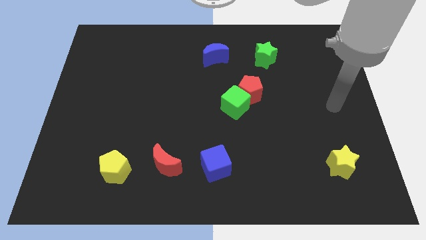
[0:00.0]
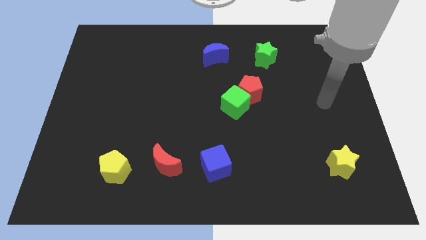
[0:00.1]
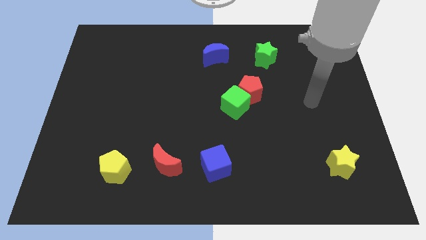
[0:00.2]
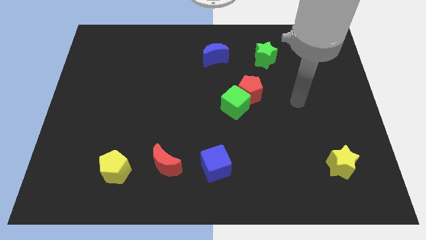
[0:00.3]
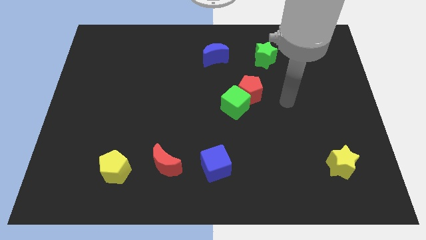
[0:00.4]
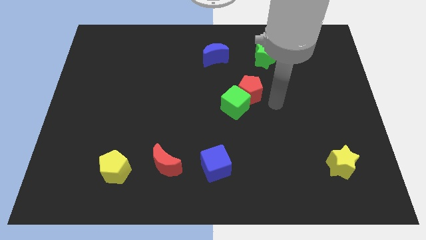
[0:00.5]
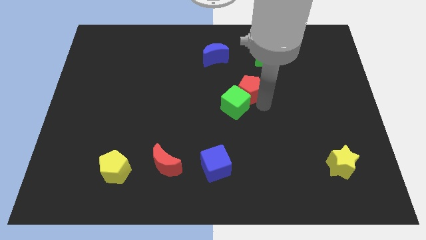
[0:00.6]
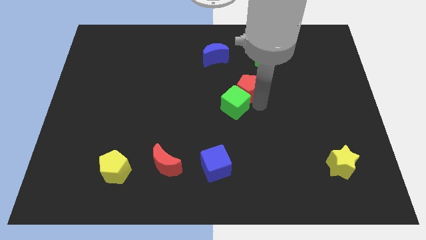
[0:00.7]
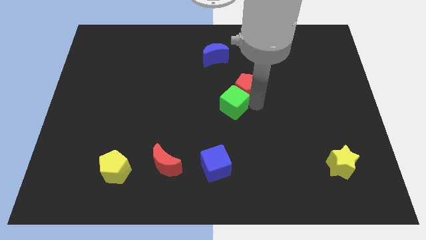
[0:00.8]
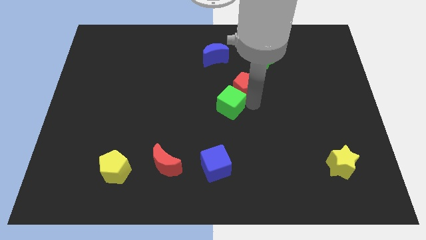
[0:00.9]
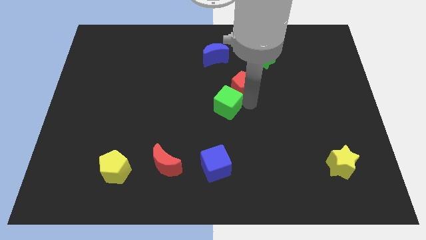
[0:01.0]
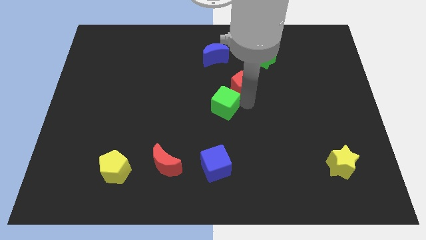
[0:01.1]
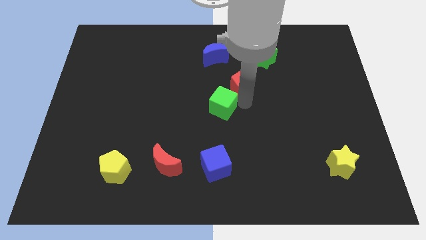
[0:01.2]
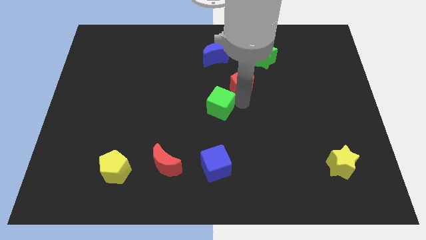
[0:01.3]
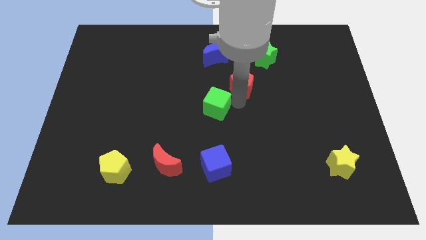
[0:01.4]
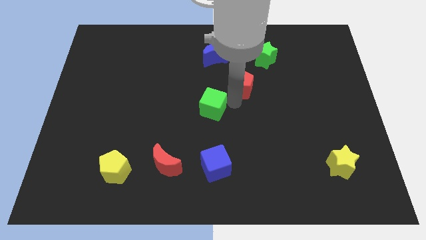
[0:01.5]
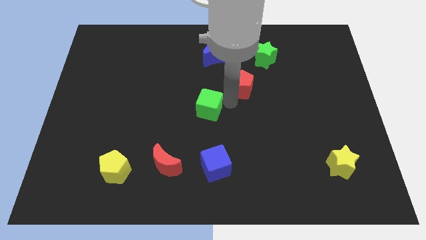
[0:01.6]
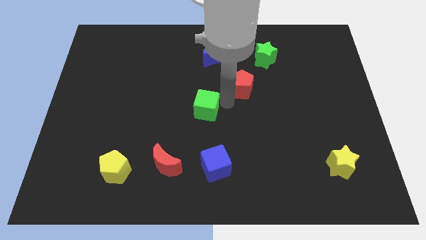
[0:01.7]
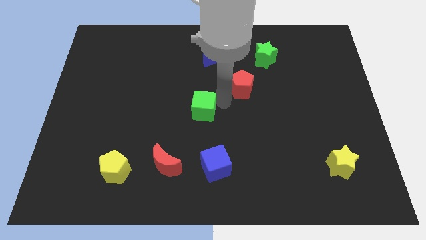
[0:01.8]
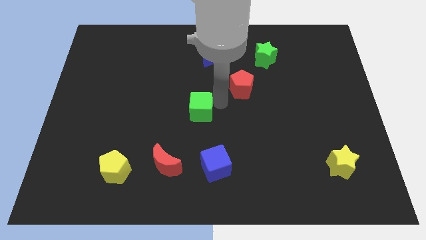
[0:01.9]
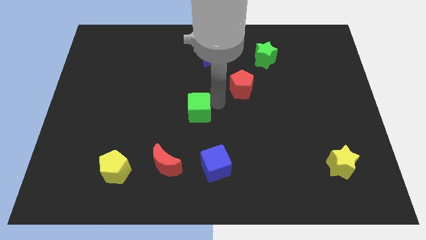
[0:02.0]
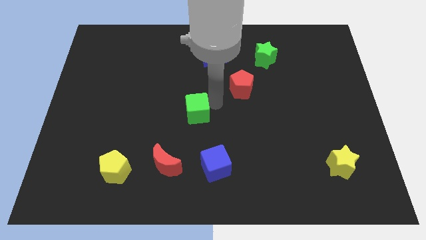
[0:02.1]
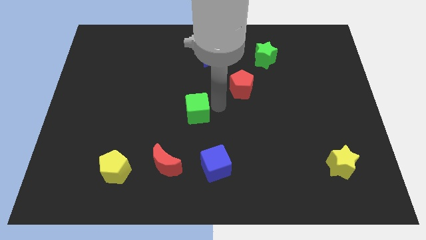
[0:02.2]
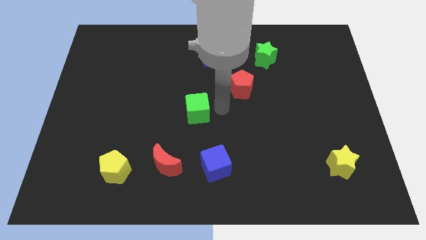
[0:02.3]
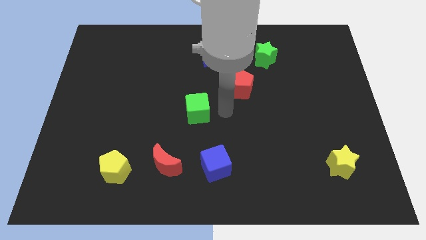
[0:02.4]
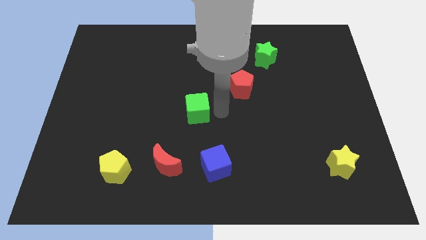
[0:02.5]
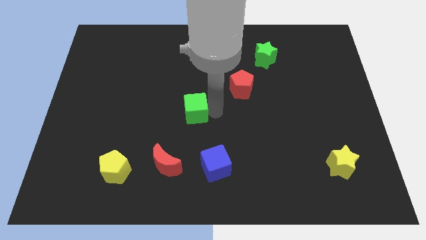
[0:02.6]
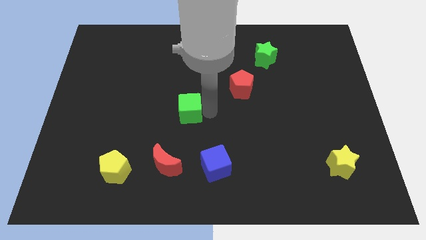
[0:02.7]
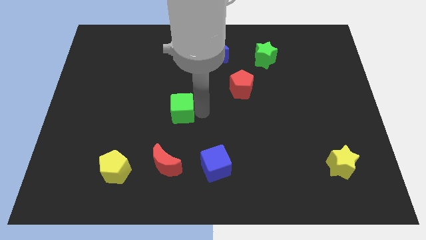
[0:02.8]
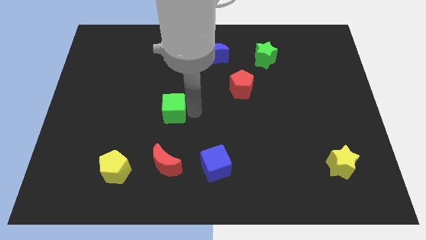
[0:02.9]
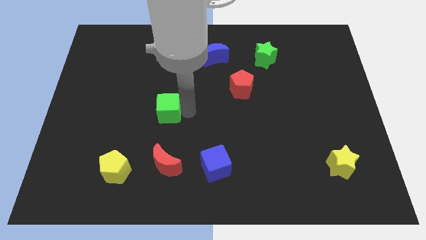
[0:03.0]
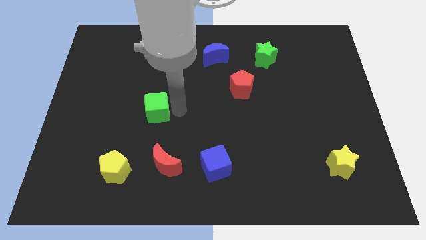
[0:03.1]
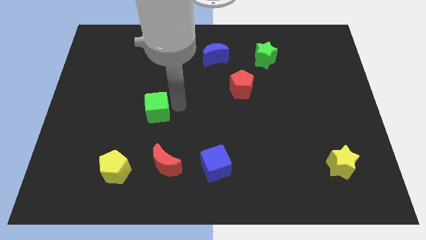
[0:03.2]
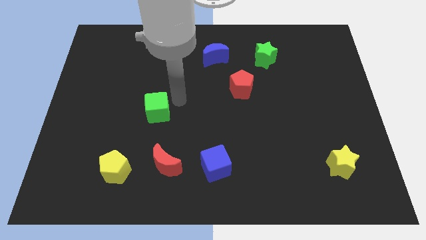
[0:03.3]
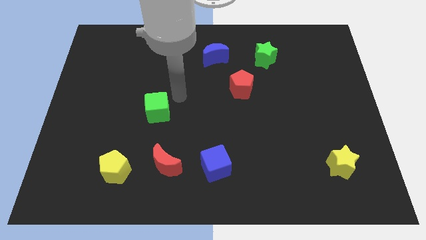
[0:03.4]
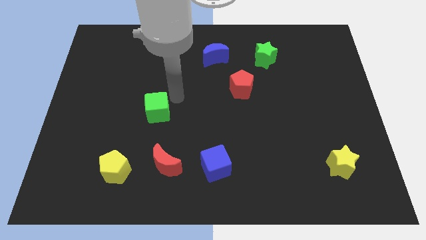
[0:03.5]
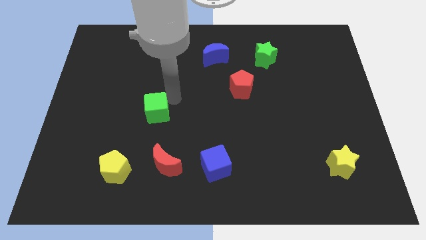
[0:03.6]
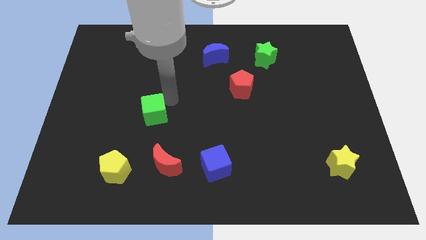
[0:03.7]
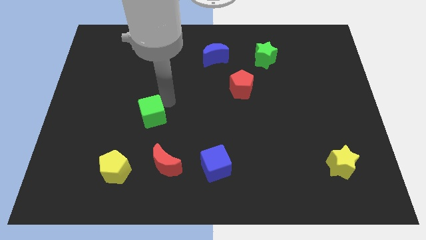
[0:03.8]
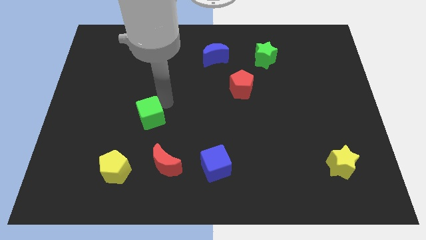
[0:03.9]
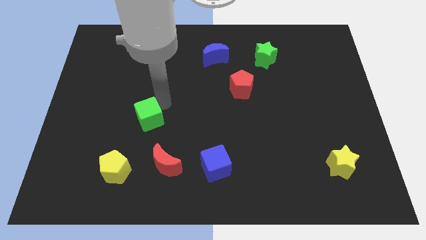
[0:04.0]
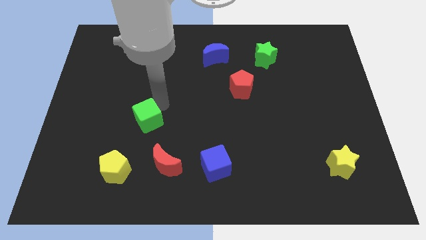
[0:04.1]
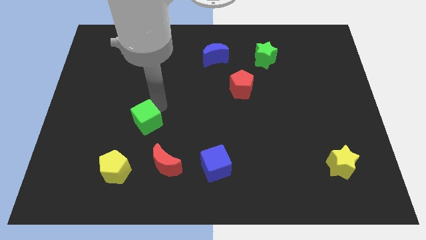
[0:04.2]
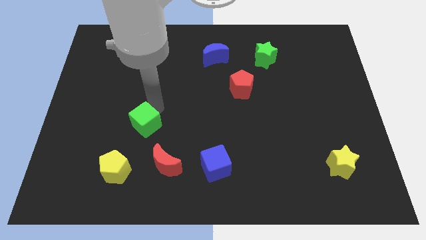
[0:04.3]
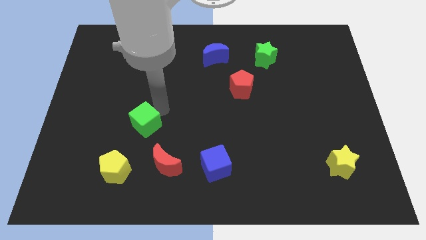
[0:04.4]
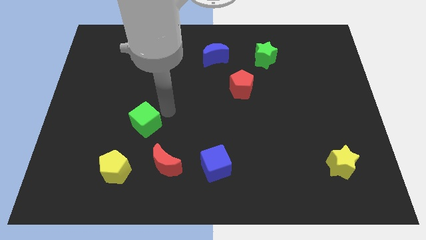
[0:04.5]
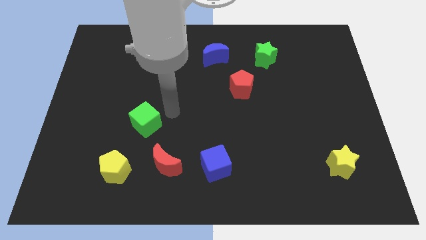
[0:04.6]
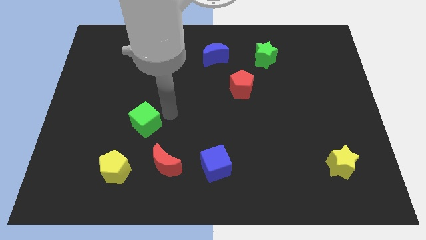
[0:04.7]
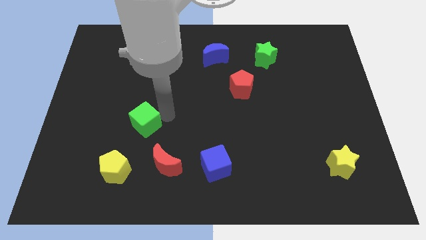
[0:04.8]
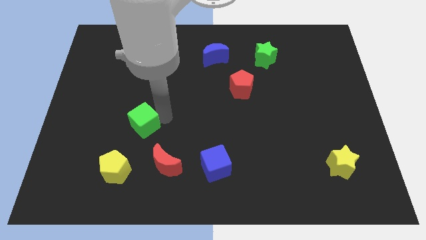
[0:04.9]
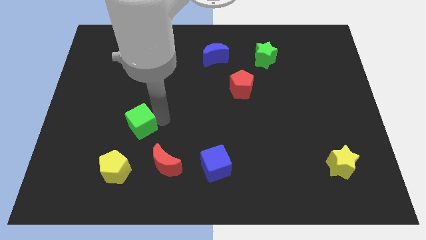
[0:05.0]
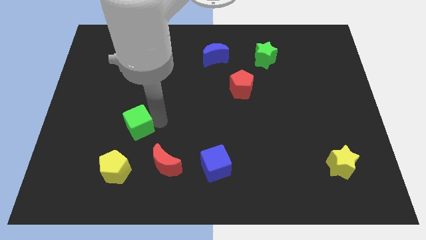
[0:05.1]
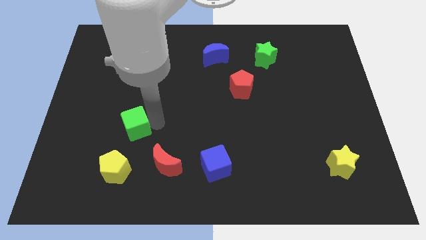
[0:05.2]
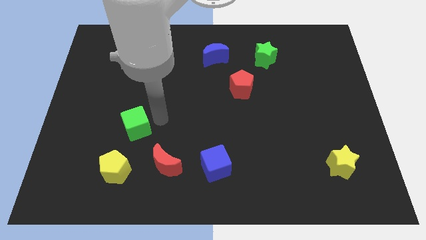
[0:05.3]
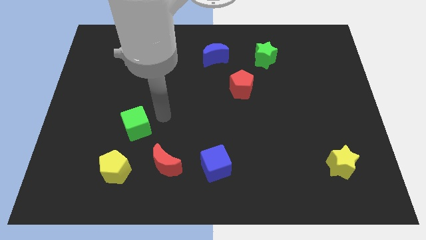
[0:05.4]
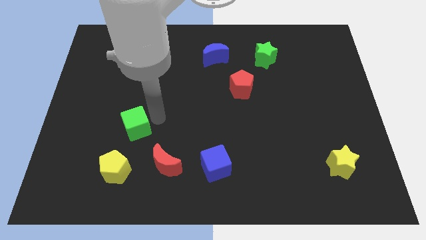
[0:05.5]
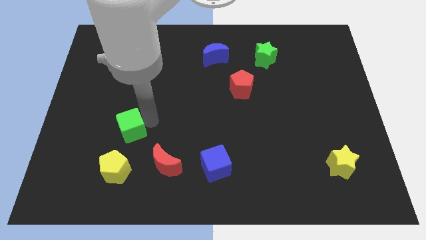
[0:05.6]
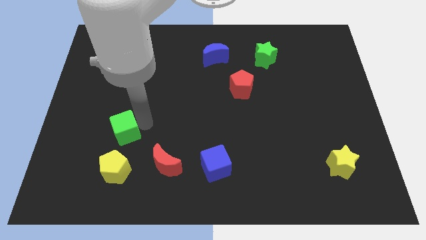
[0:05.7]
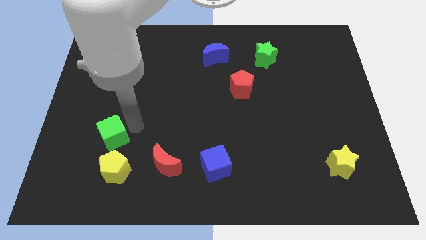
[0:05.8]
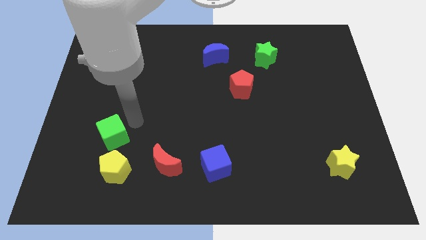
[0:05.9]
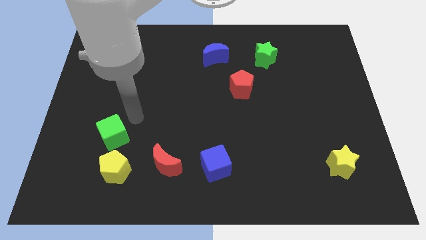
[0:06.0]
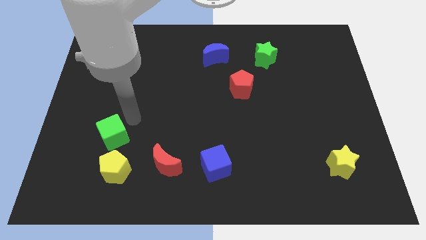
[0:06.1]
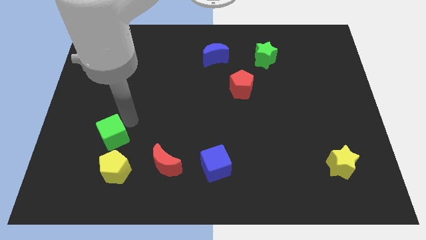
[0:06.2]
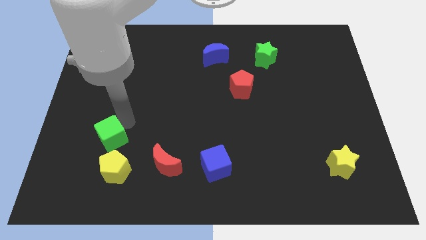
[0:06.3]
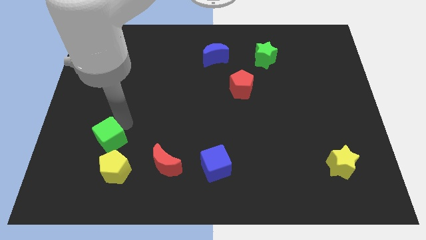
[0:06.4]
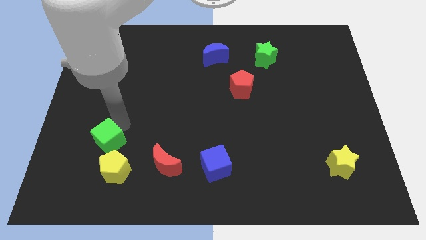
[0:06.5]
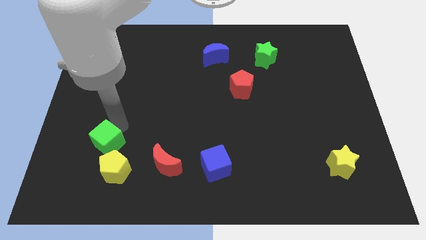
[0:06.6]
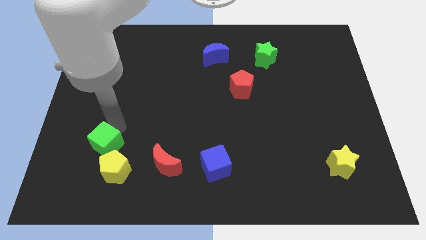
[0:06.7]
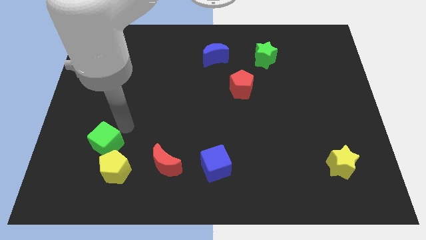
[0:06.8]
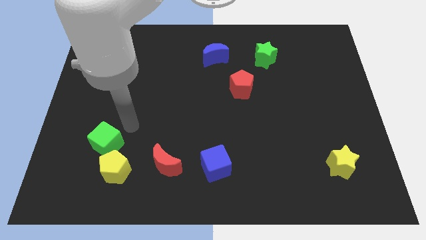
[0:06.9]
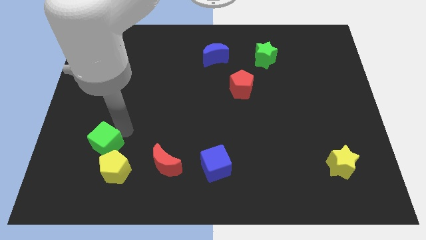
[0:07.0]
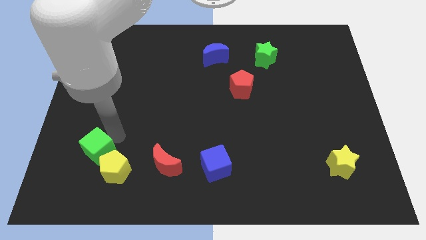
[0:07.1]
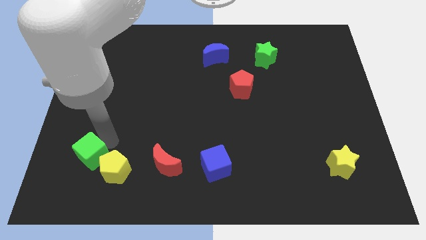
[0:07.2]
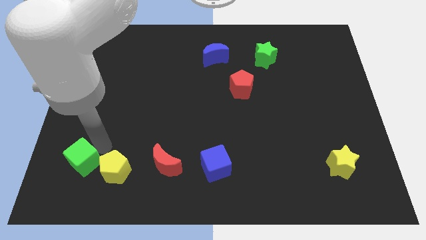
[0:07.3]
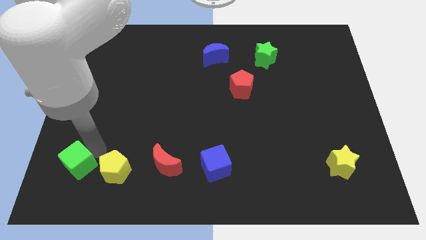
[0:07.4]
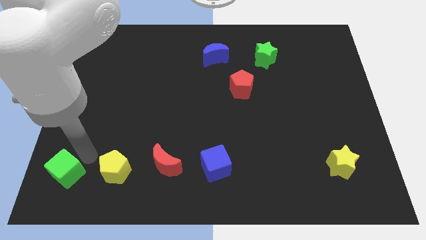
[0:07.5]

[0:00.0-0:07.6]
put the green cube to the lower left corner
